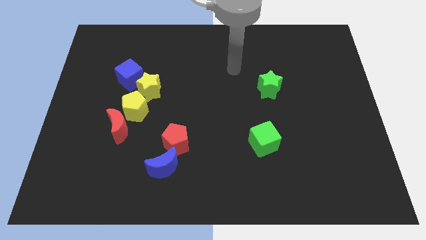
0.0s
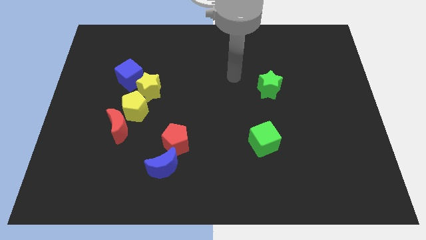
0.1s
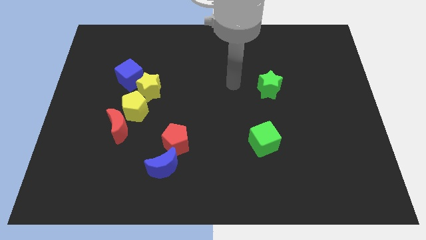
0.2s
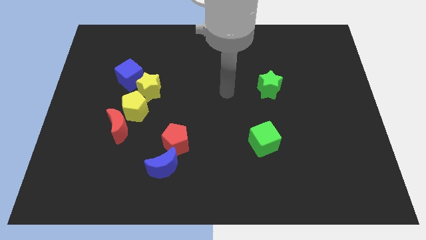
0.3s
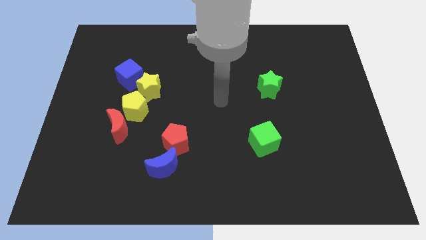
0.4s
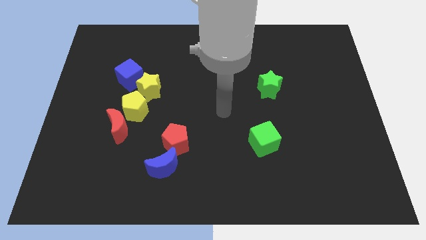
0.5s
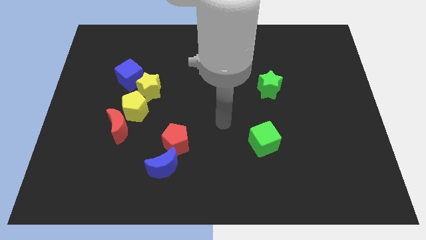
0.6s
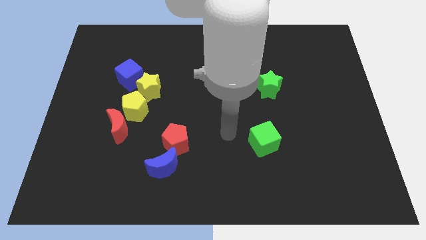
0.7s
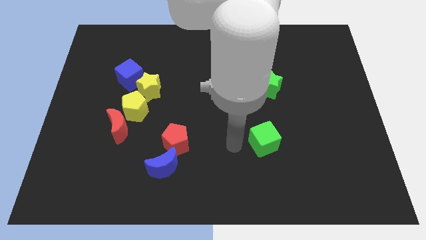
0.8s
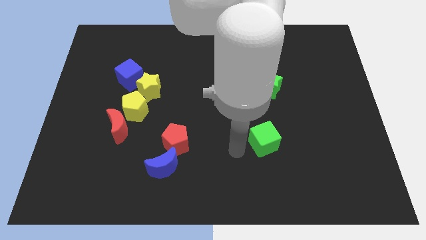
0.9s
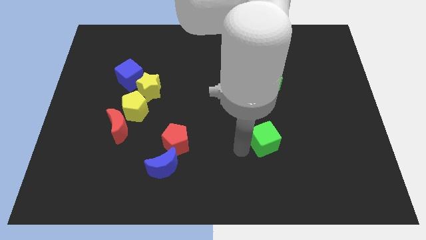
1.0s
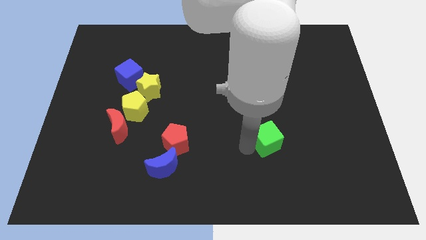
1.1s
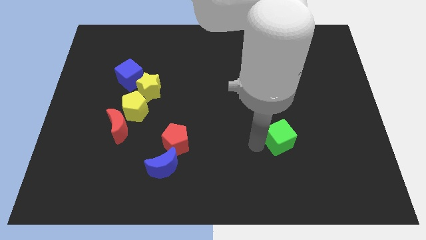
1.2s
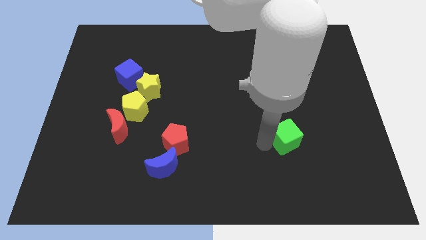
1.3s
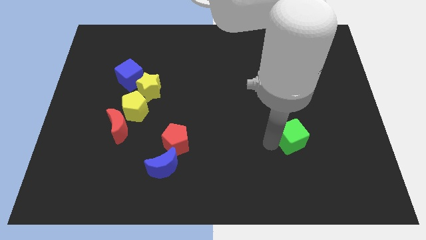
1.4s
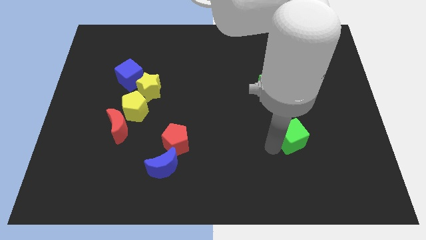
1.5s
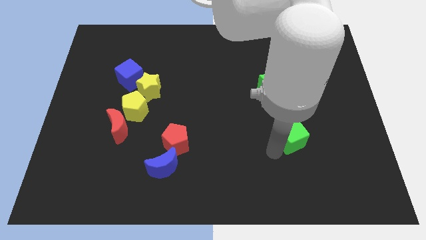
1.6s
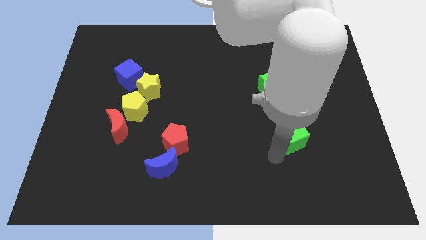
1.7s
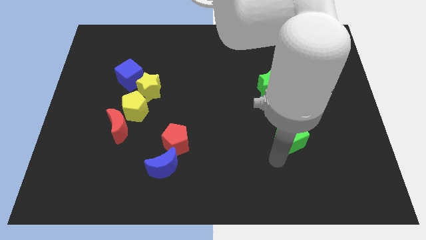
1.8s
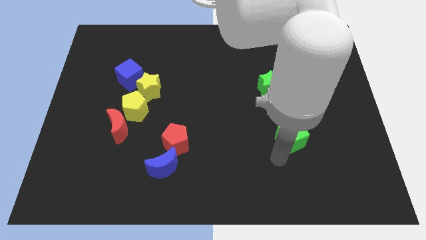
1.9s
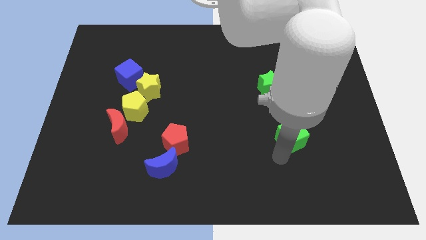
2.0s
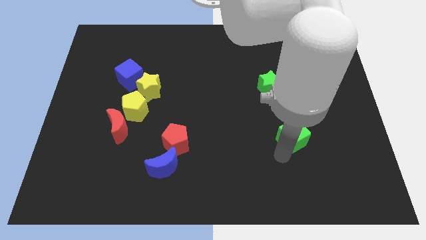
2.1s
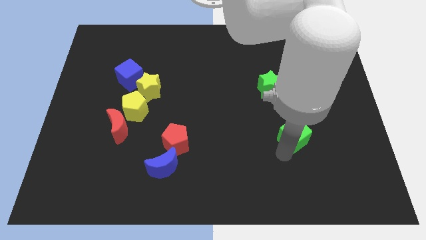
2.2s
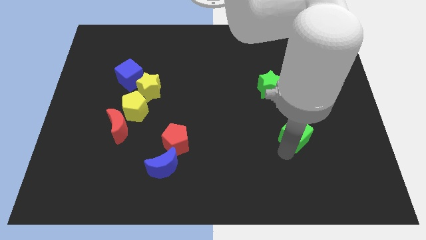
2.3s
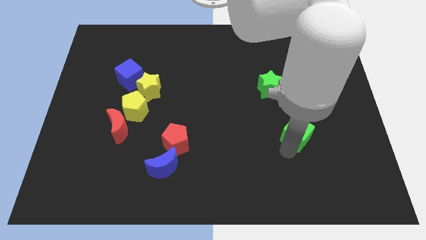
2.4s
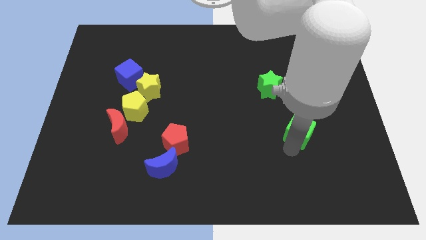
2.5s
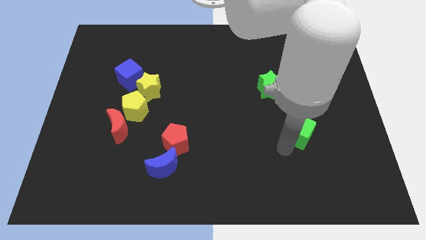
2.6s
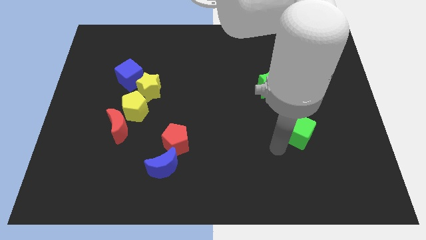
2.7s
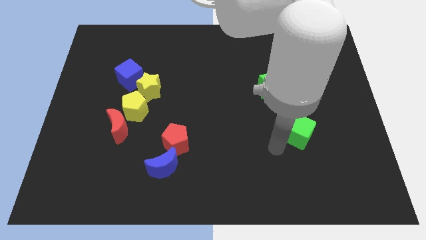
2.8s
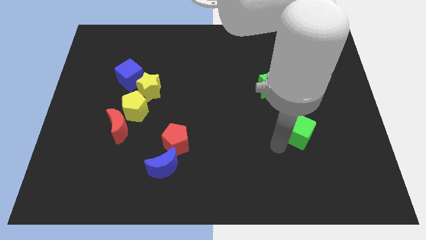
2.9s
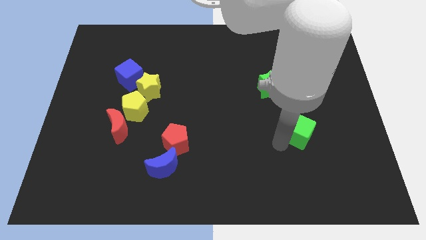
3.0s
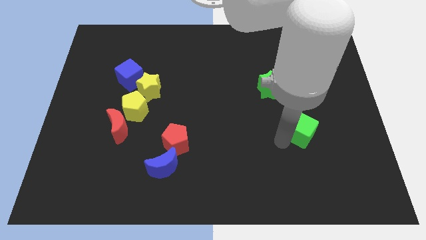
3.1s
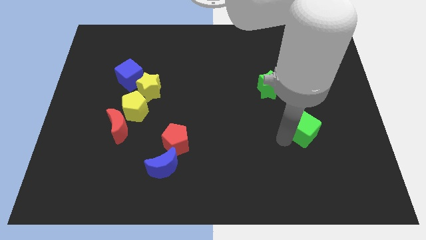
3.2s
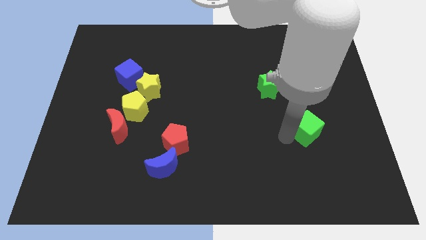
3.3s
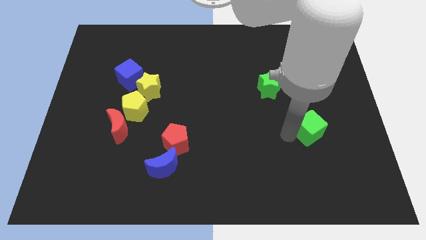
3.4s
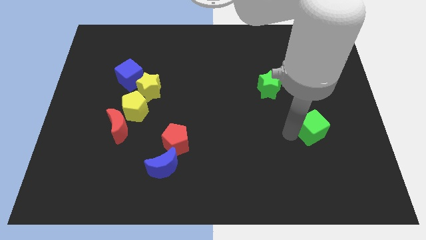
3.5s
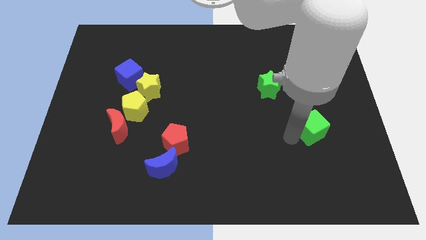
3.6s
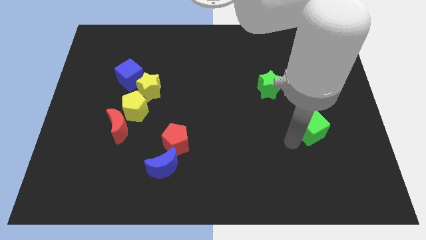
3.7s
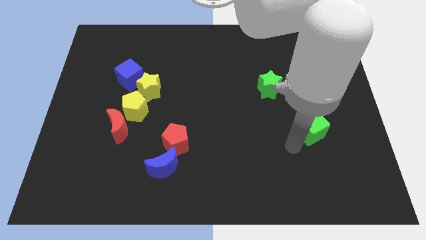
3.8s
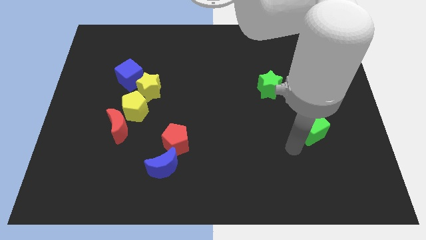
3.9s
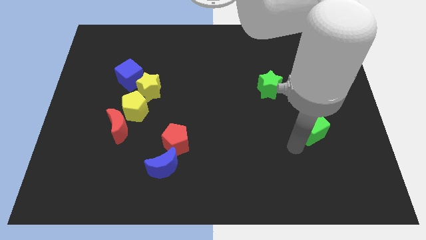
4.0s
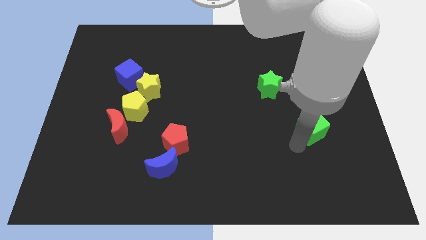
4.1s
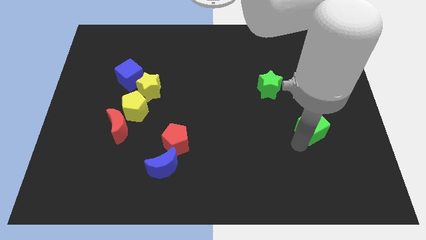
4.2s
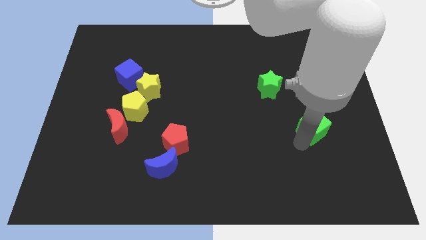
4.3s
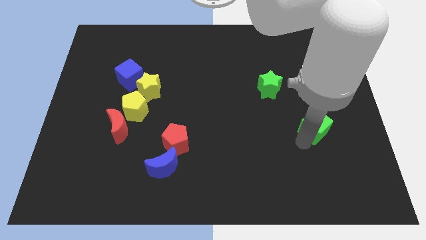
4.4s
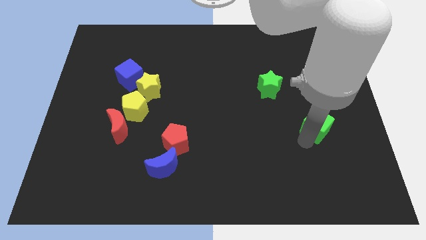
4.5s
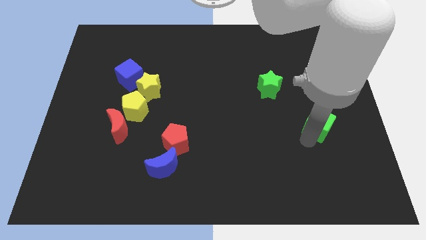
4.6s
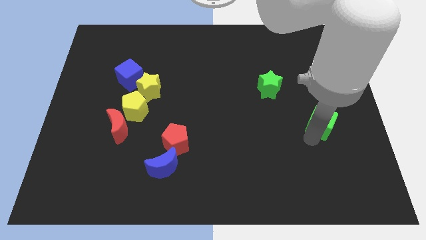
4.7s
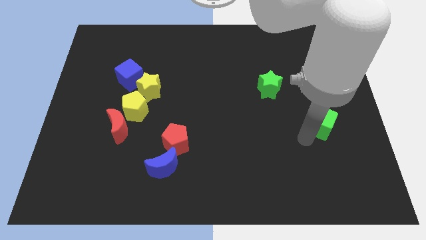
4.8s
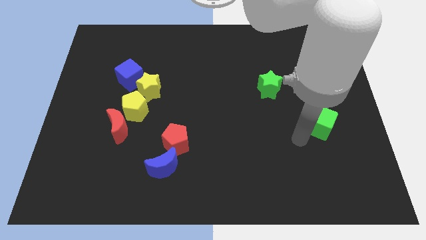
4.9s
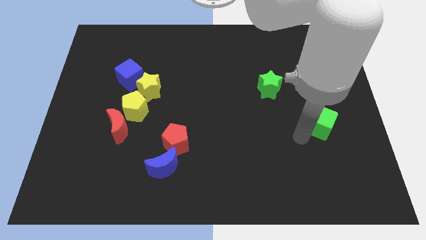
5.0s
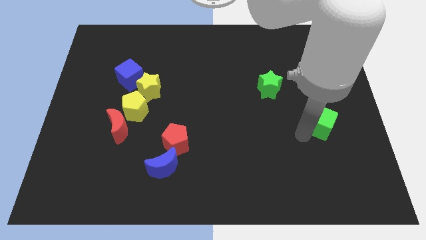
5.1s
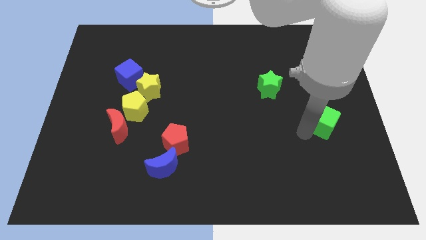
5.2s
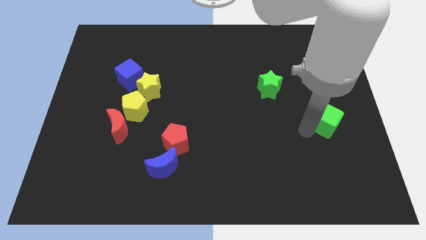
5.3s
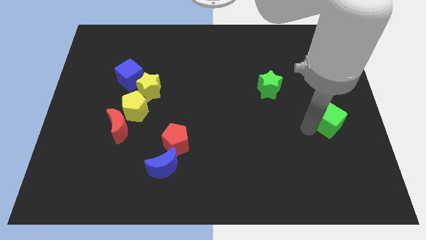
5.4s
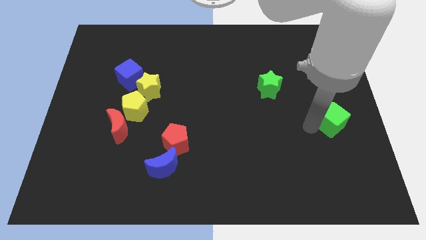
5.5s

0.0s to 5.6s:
slide the green cube to the center right
